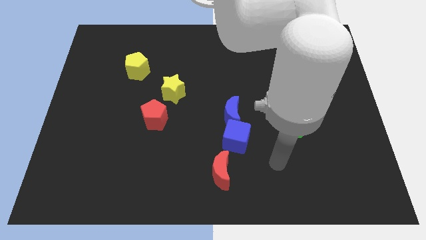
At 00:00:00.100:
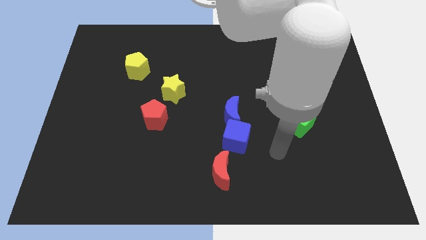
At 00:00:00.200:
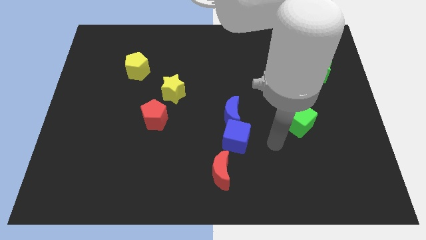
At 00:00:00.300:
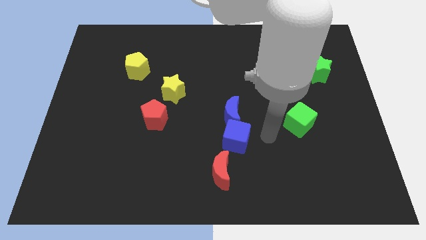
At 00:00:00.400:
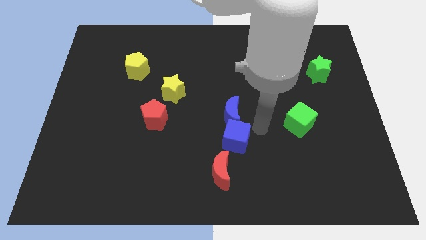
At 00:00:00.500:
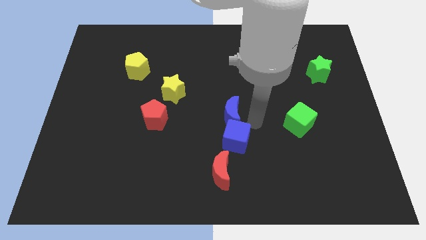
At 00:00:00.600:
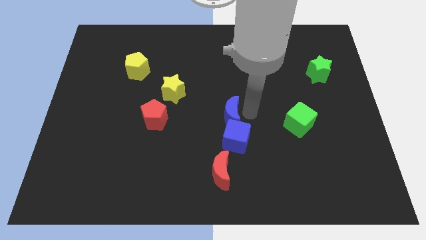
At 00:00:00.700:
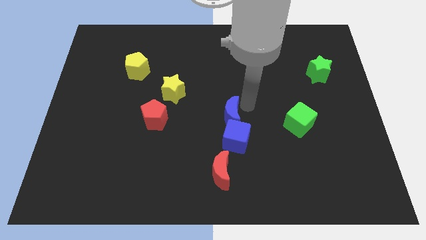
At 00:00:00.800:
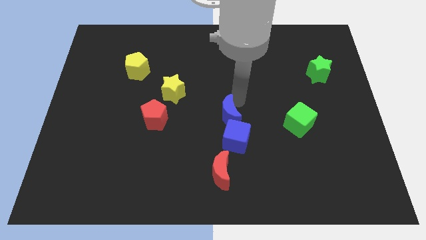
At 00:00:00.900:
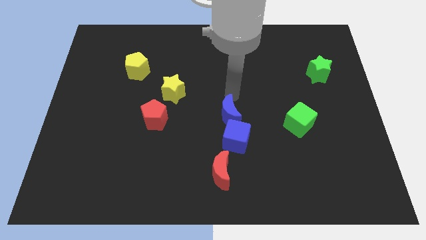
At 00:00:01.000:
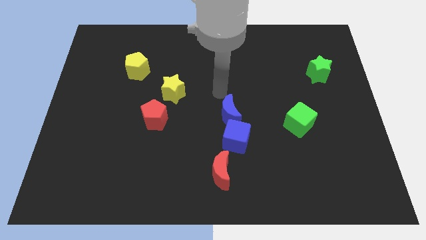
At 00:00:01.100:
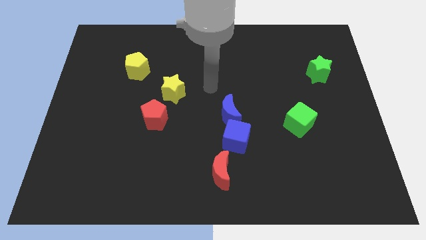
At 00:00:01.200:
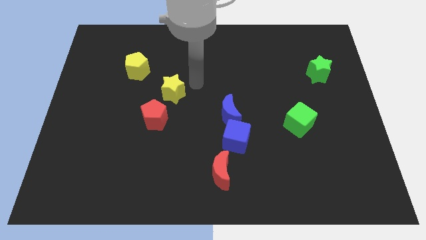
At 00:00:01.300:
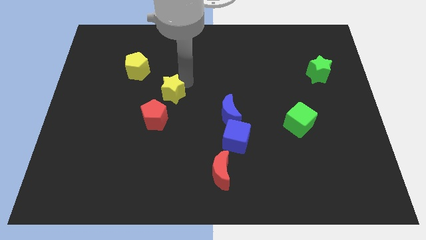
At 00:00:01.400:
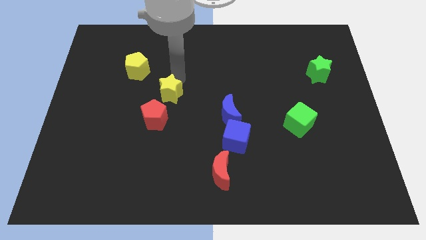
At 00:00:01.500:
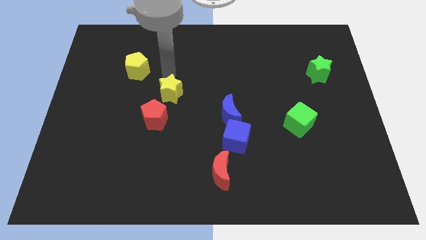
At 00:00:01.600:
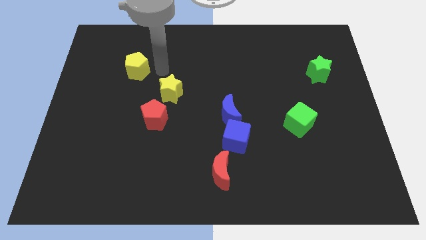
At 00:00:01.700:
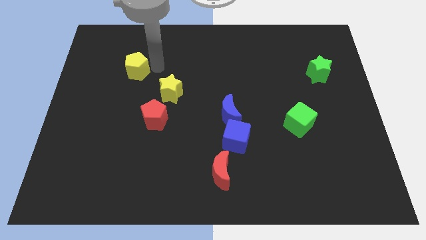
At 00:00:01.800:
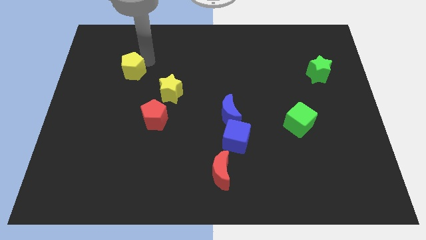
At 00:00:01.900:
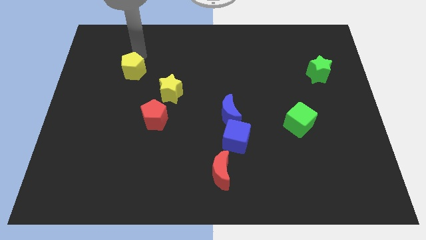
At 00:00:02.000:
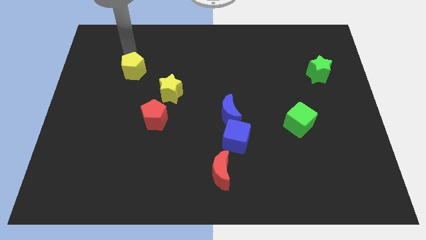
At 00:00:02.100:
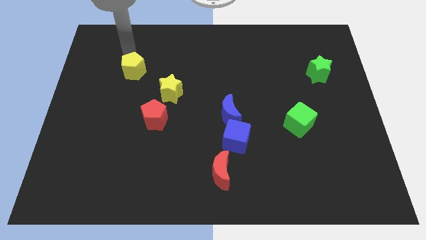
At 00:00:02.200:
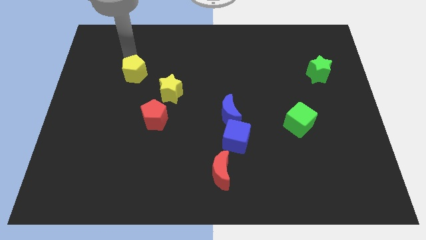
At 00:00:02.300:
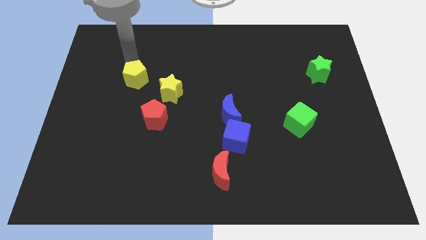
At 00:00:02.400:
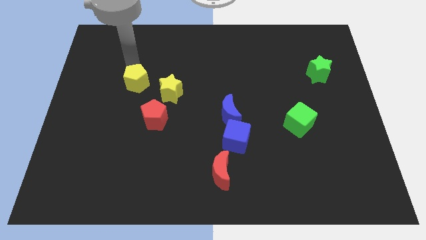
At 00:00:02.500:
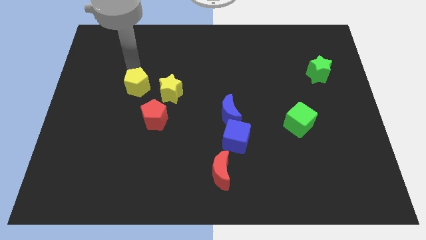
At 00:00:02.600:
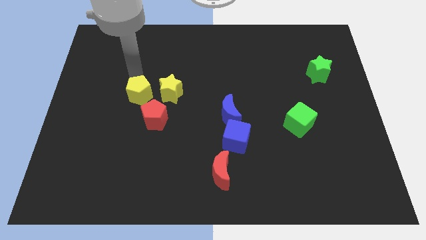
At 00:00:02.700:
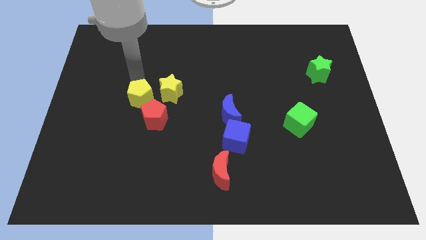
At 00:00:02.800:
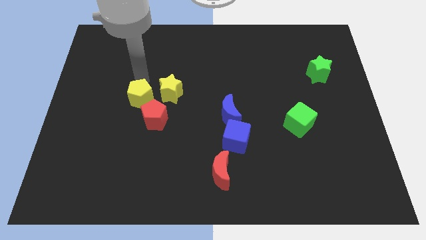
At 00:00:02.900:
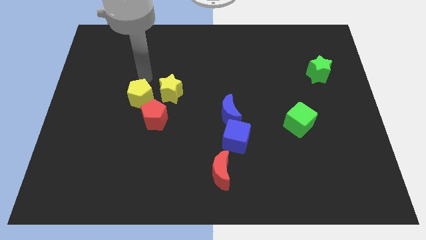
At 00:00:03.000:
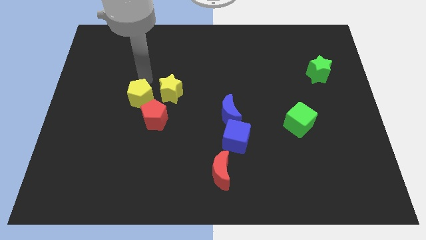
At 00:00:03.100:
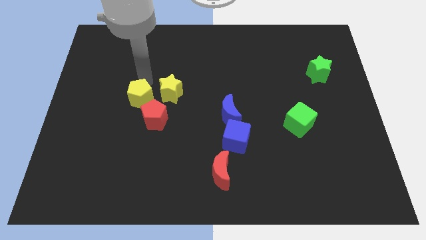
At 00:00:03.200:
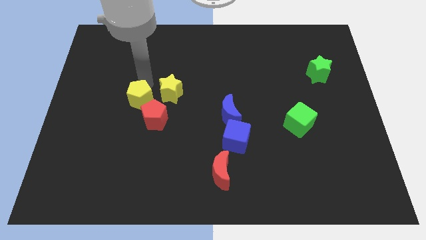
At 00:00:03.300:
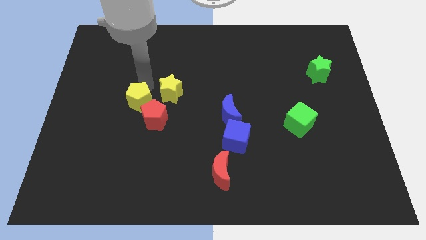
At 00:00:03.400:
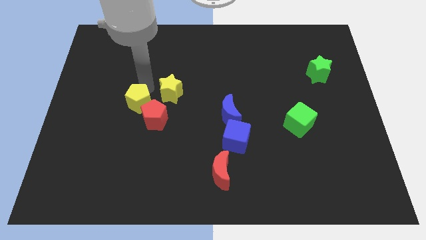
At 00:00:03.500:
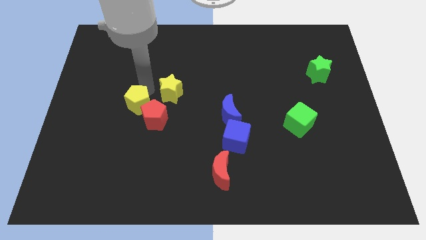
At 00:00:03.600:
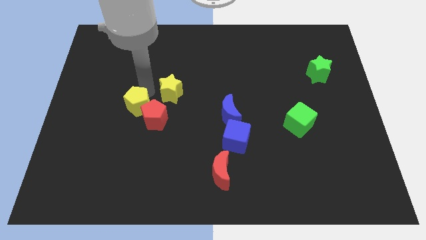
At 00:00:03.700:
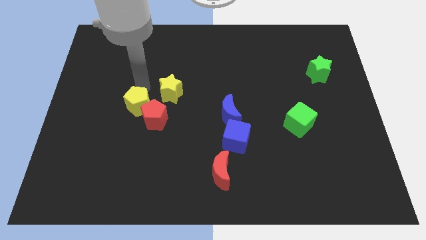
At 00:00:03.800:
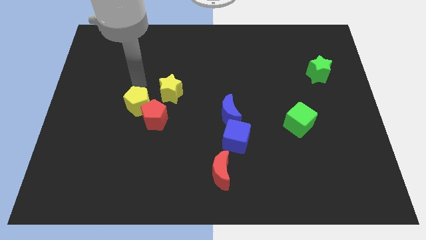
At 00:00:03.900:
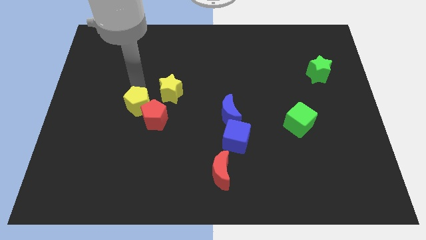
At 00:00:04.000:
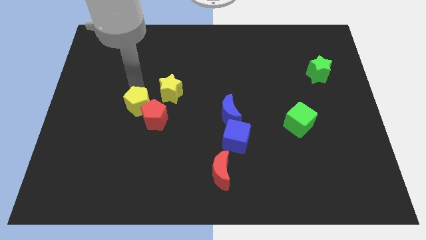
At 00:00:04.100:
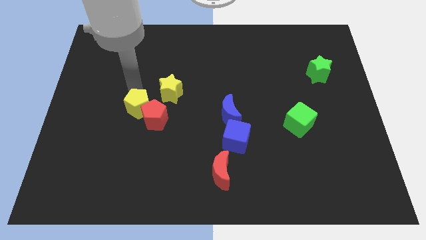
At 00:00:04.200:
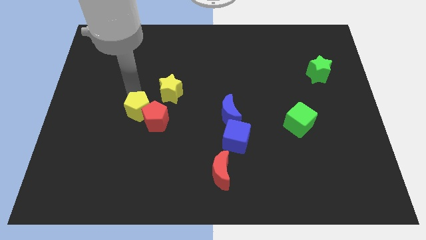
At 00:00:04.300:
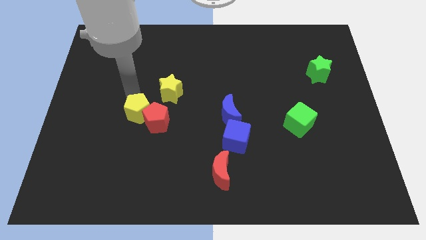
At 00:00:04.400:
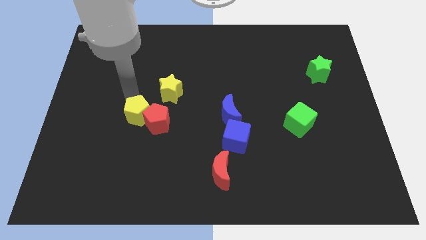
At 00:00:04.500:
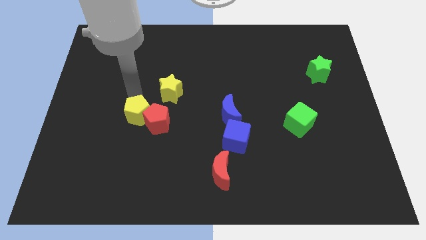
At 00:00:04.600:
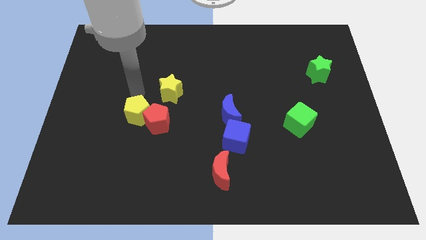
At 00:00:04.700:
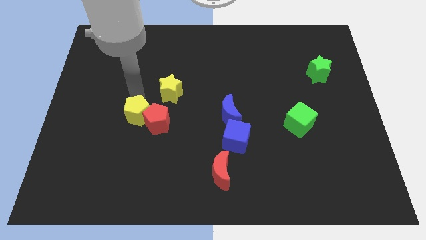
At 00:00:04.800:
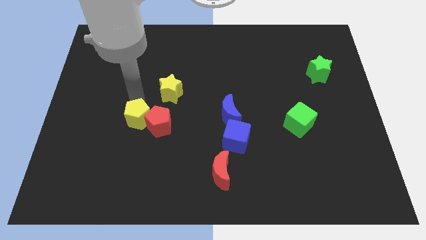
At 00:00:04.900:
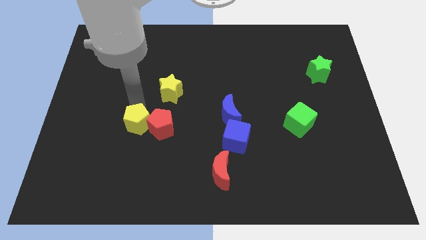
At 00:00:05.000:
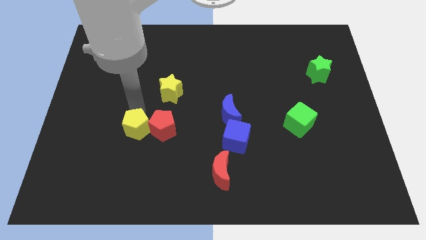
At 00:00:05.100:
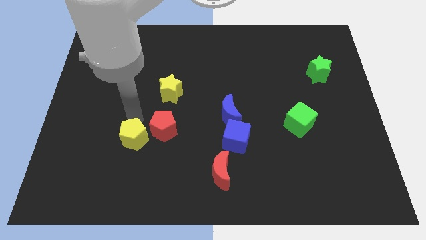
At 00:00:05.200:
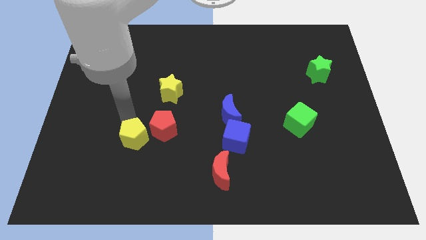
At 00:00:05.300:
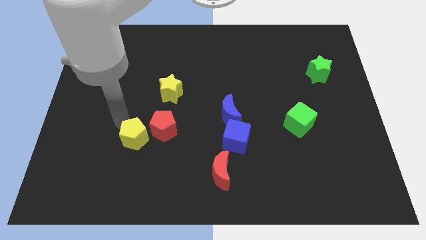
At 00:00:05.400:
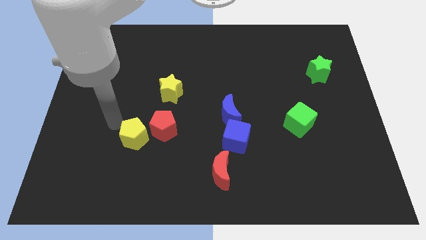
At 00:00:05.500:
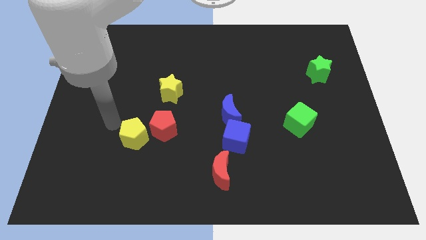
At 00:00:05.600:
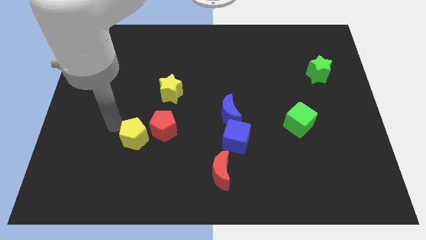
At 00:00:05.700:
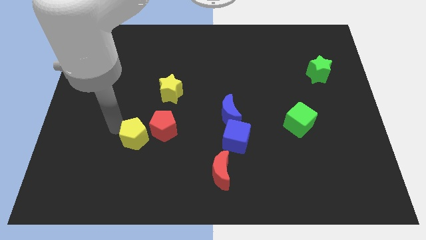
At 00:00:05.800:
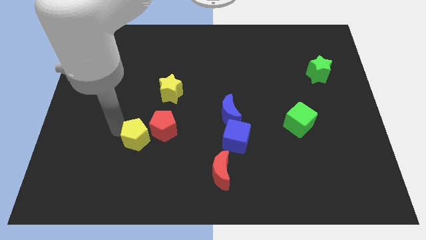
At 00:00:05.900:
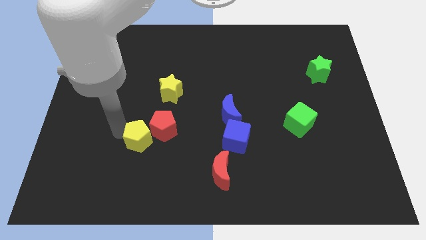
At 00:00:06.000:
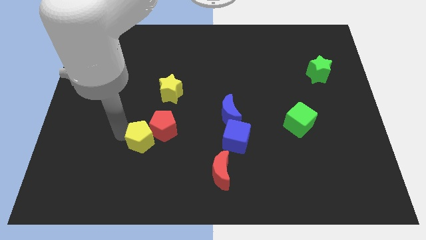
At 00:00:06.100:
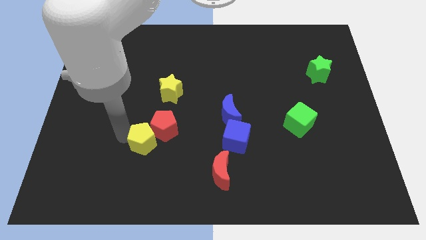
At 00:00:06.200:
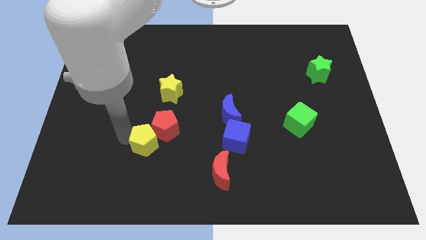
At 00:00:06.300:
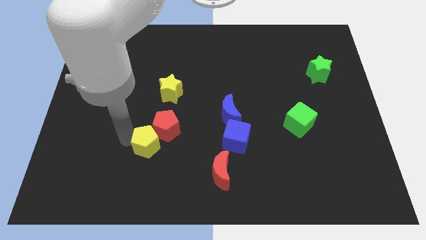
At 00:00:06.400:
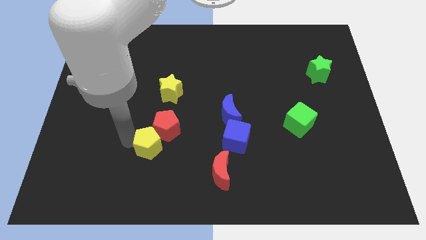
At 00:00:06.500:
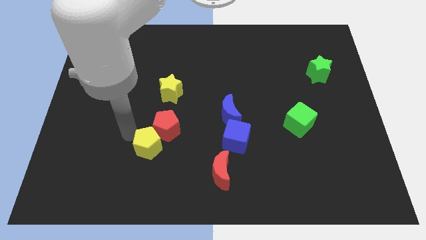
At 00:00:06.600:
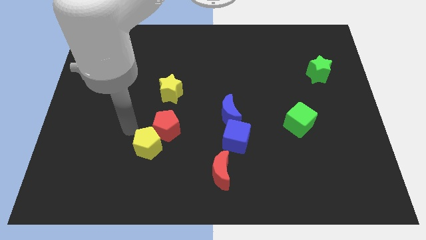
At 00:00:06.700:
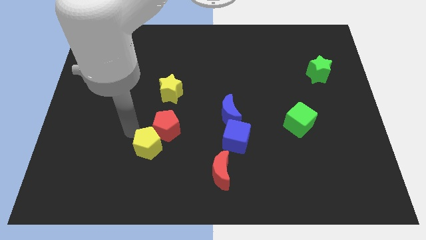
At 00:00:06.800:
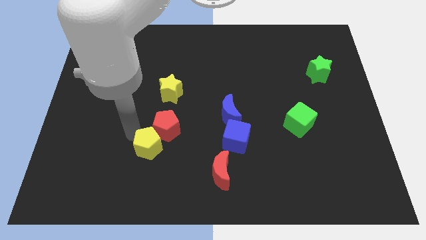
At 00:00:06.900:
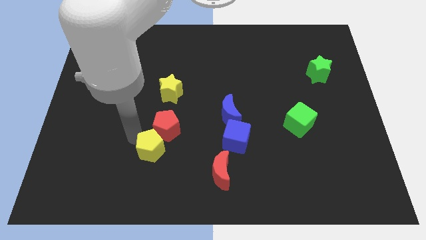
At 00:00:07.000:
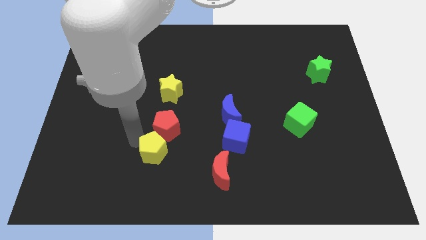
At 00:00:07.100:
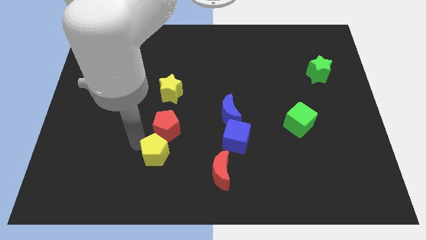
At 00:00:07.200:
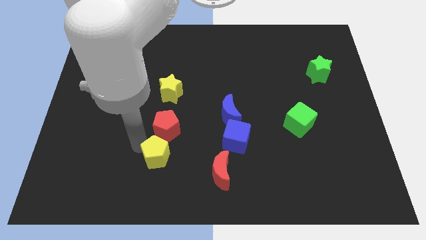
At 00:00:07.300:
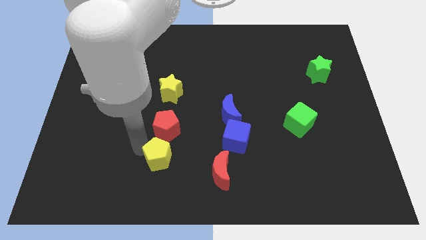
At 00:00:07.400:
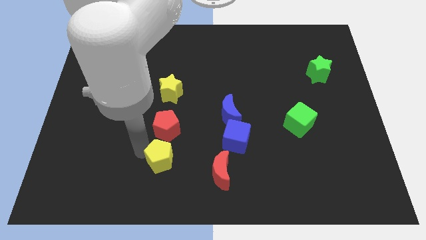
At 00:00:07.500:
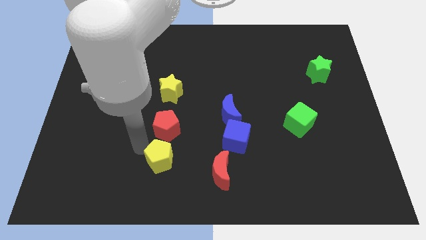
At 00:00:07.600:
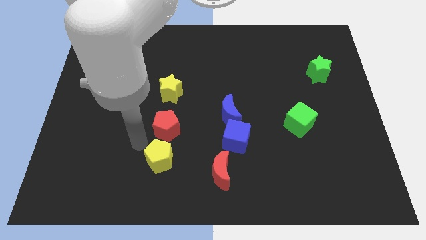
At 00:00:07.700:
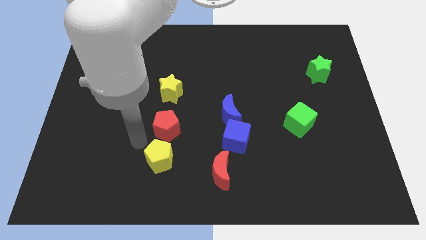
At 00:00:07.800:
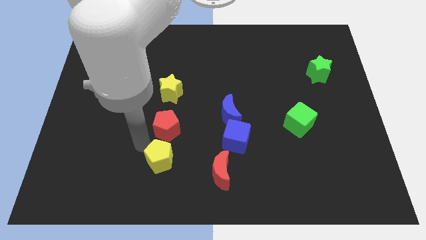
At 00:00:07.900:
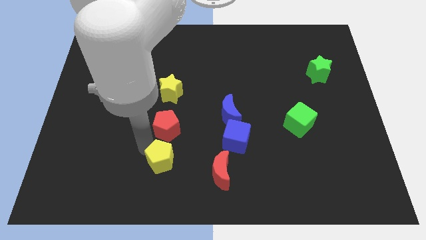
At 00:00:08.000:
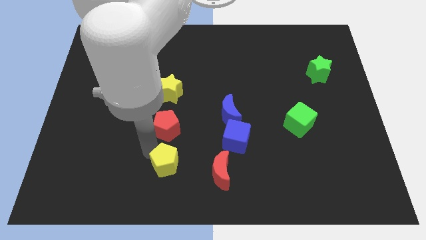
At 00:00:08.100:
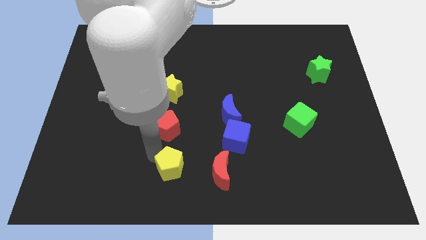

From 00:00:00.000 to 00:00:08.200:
slide the yellow pentagon to the bottom
